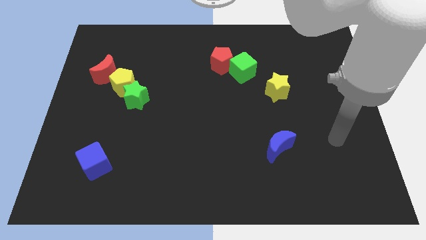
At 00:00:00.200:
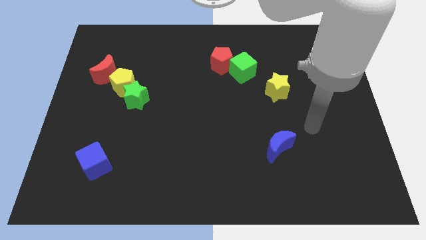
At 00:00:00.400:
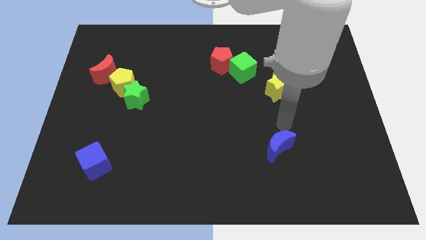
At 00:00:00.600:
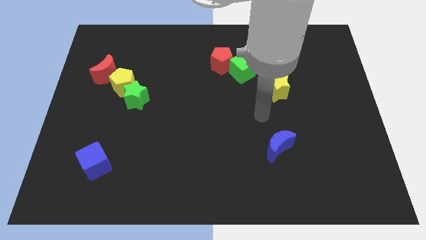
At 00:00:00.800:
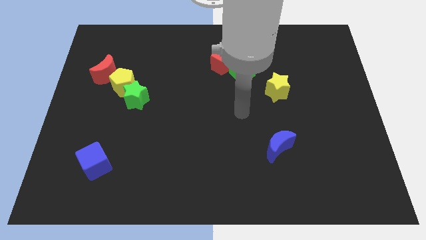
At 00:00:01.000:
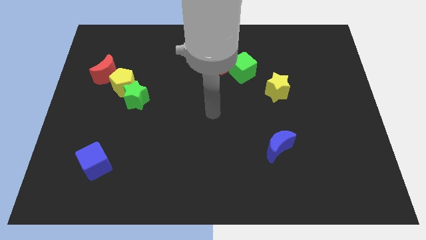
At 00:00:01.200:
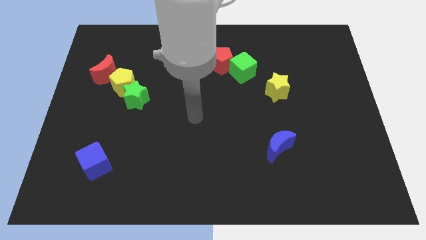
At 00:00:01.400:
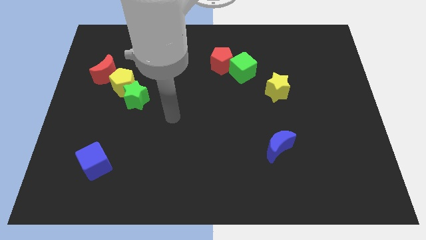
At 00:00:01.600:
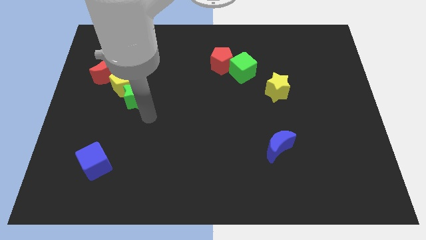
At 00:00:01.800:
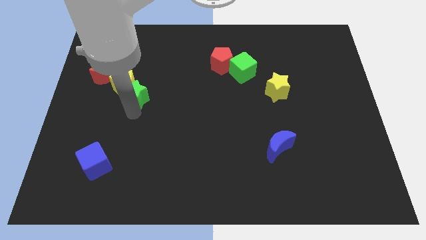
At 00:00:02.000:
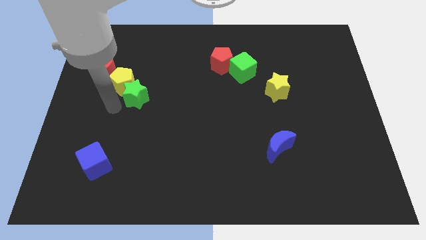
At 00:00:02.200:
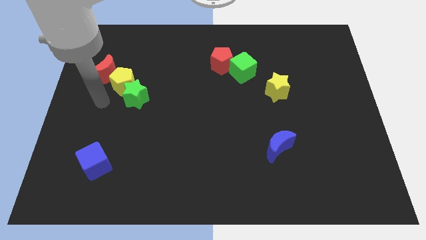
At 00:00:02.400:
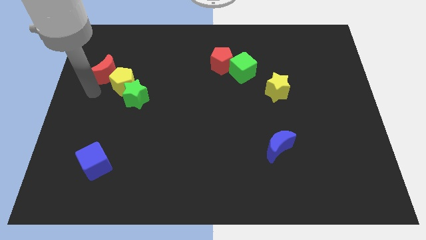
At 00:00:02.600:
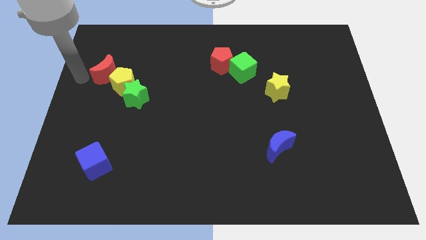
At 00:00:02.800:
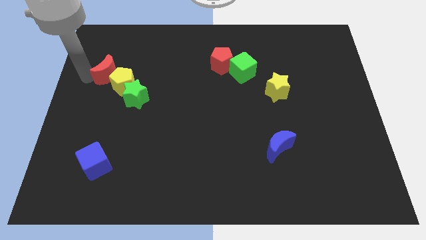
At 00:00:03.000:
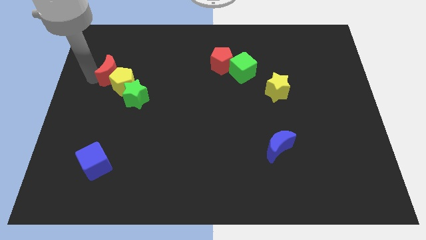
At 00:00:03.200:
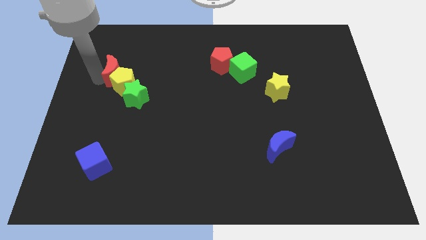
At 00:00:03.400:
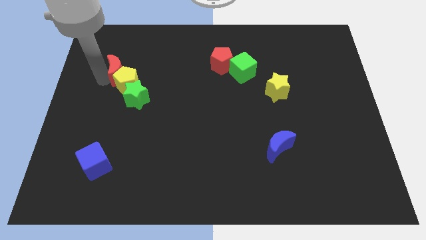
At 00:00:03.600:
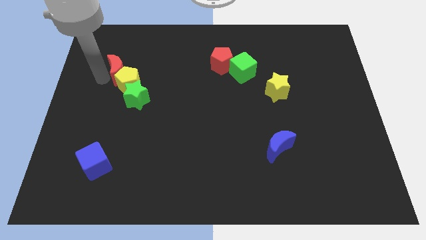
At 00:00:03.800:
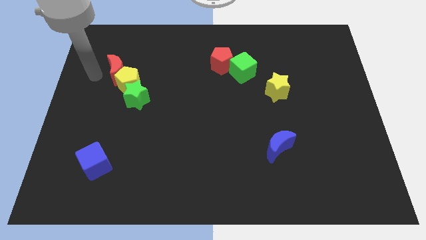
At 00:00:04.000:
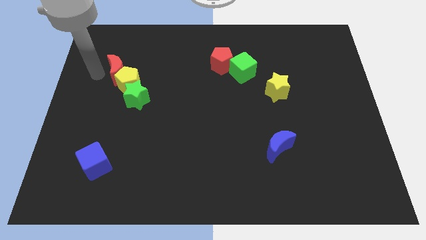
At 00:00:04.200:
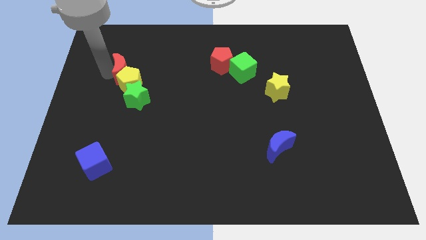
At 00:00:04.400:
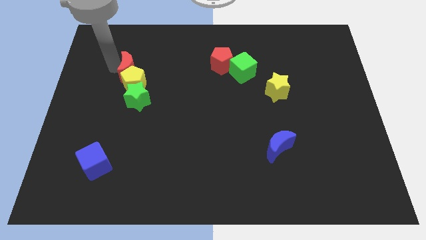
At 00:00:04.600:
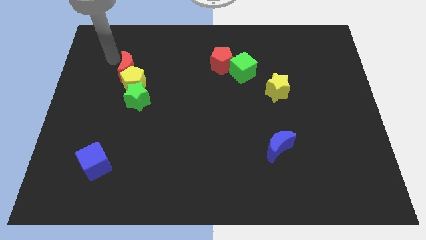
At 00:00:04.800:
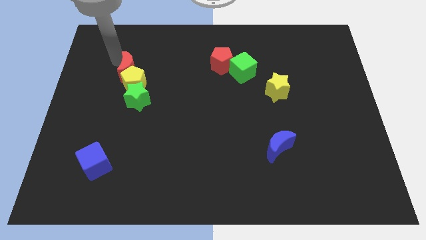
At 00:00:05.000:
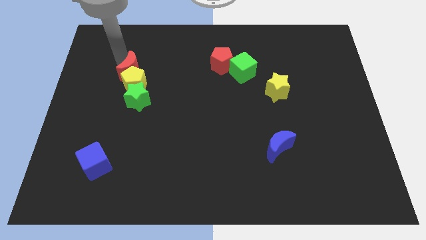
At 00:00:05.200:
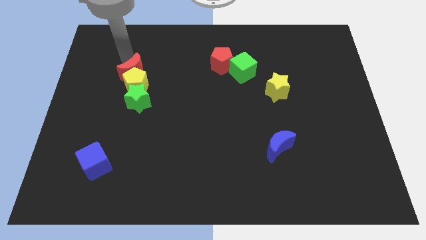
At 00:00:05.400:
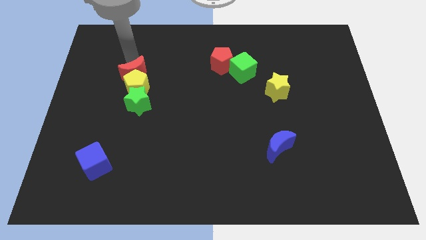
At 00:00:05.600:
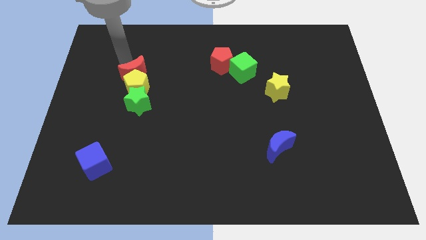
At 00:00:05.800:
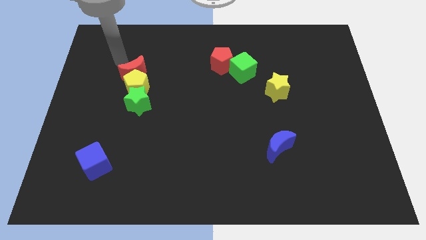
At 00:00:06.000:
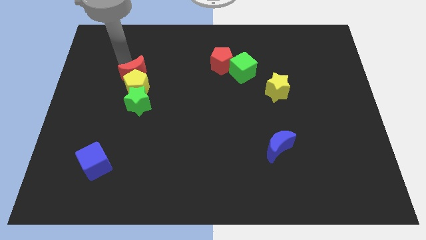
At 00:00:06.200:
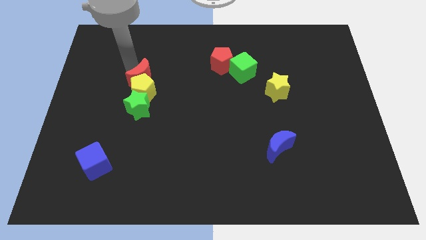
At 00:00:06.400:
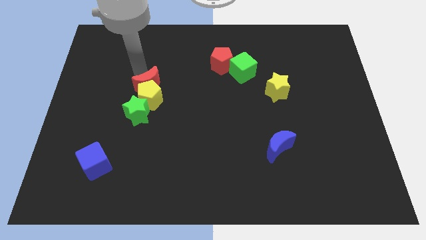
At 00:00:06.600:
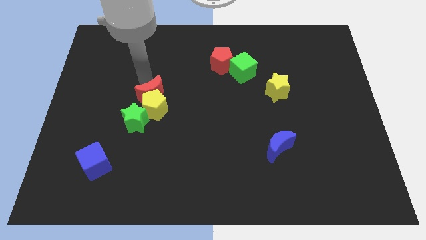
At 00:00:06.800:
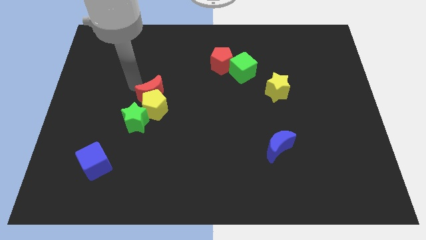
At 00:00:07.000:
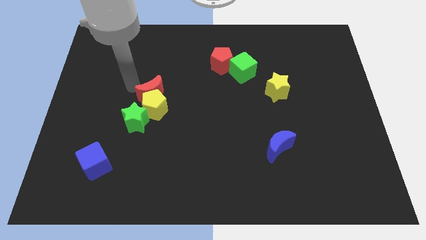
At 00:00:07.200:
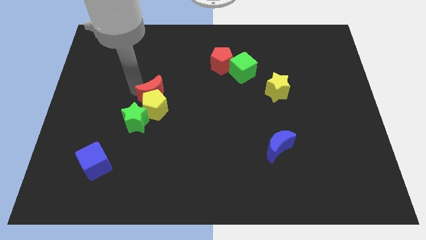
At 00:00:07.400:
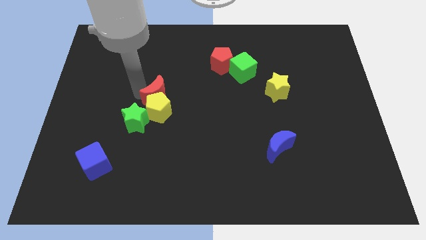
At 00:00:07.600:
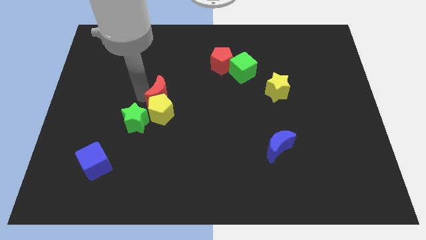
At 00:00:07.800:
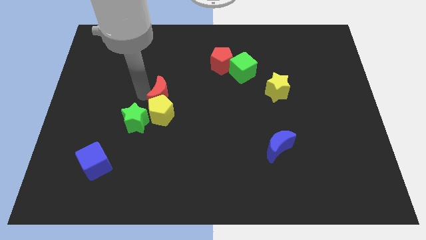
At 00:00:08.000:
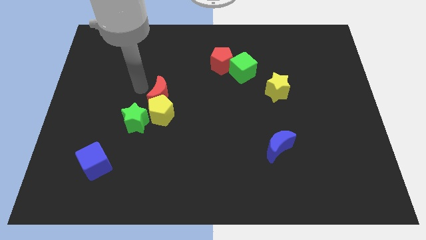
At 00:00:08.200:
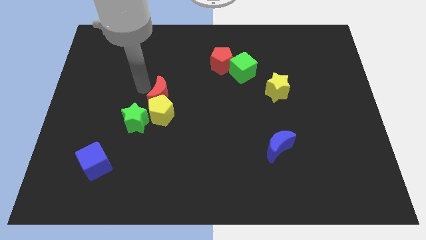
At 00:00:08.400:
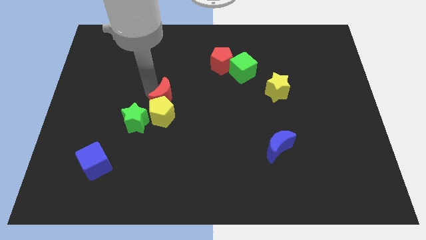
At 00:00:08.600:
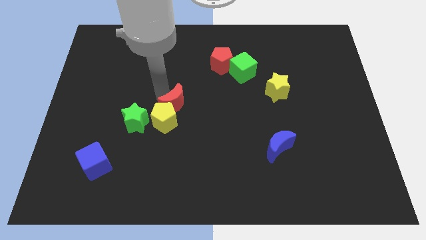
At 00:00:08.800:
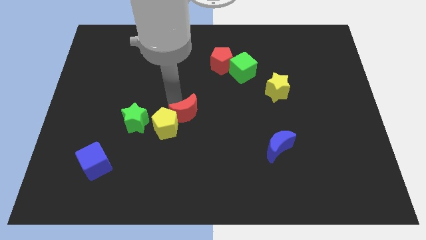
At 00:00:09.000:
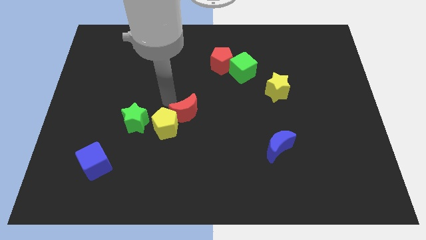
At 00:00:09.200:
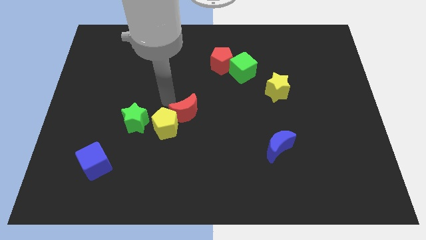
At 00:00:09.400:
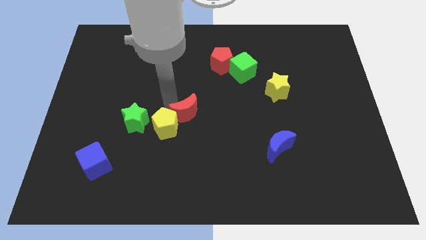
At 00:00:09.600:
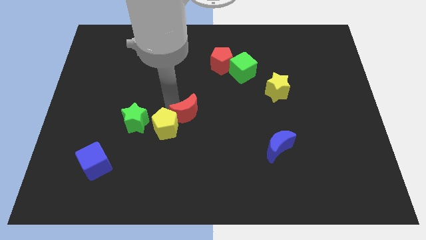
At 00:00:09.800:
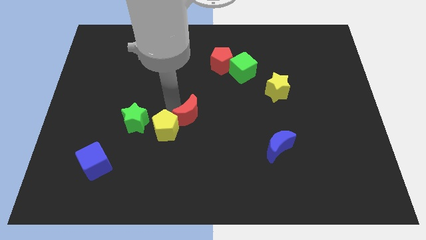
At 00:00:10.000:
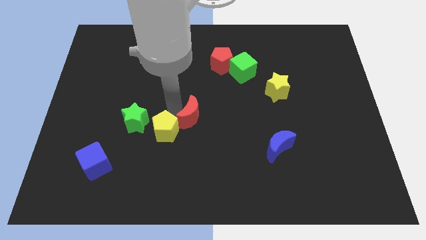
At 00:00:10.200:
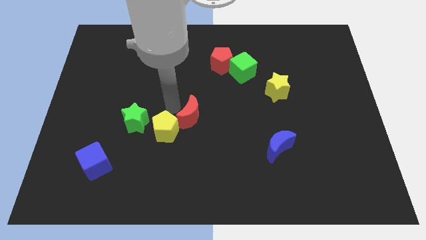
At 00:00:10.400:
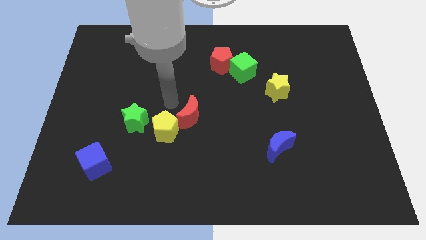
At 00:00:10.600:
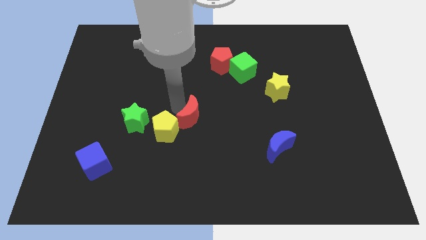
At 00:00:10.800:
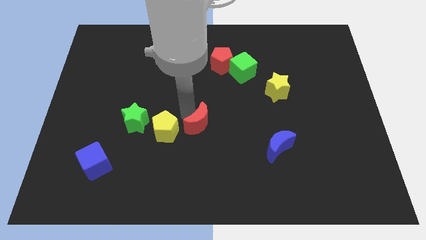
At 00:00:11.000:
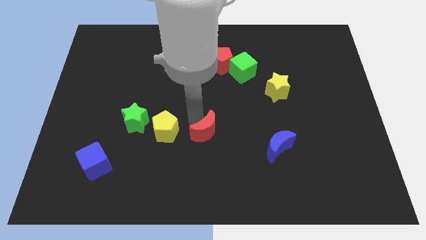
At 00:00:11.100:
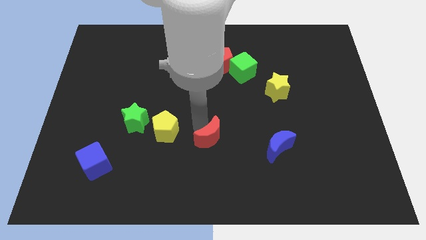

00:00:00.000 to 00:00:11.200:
push the red moon left of the blue moon
